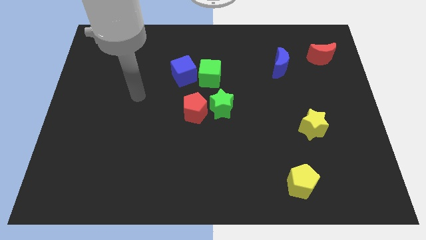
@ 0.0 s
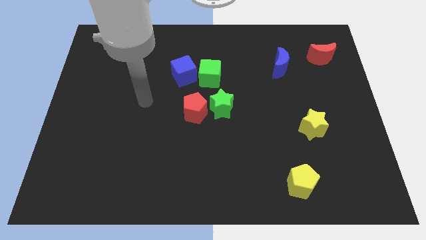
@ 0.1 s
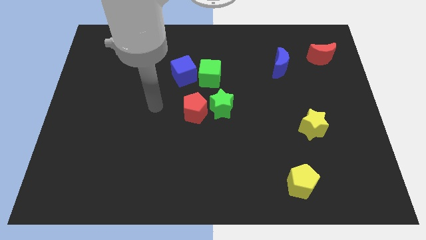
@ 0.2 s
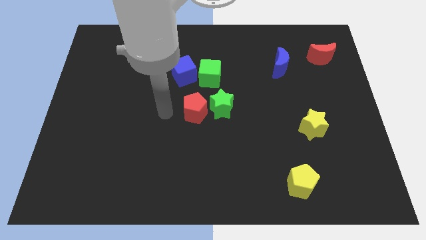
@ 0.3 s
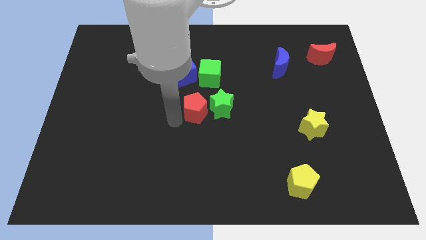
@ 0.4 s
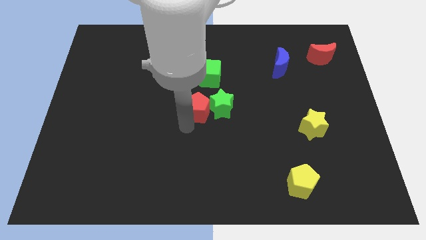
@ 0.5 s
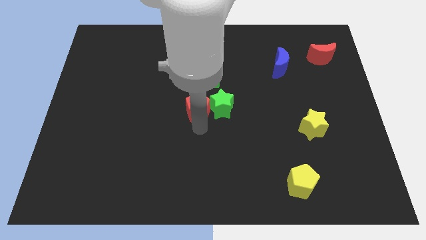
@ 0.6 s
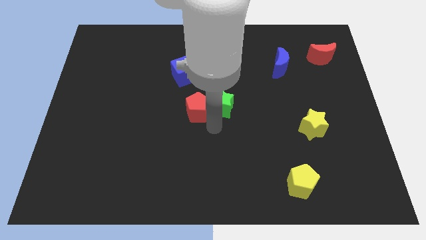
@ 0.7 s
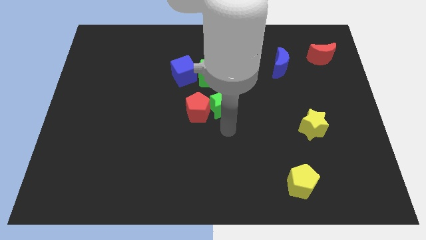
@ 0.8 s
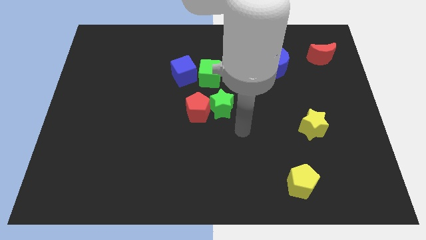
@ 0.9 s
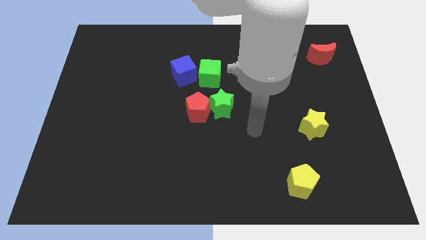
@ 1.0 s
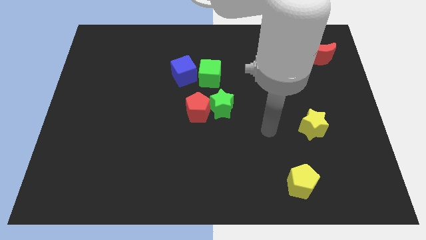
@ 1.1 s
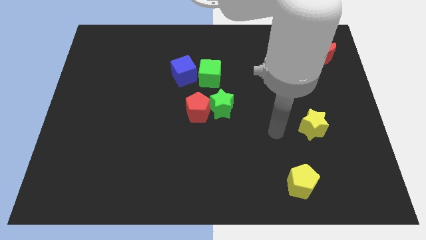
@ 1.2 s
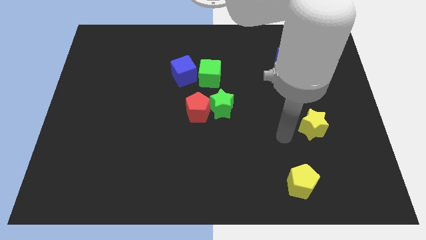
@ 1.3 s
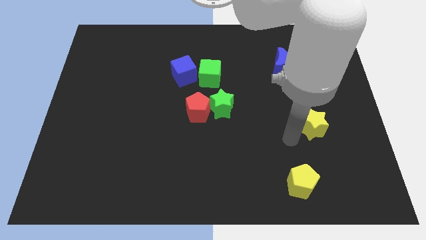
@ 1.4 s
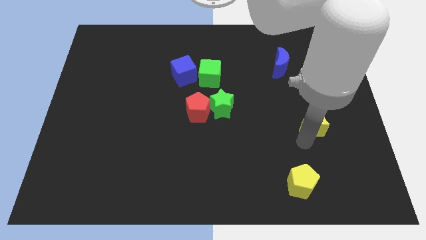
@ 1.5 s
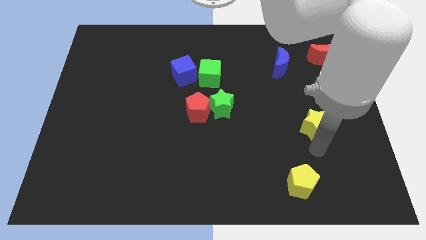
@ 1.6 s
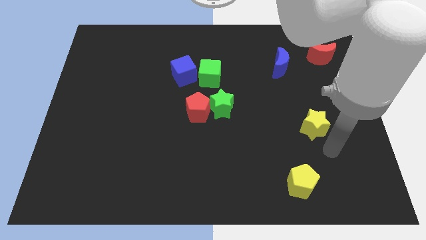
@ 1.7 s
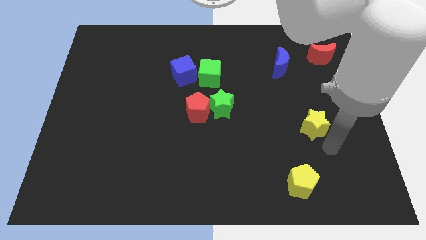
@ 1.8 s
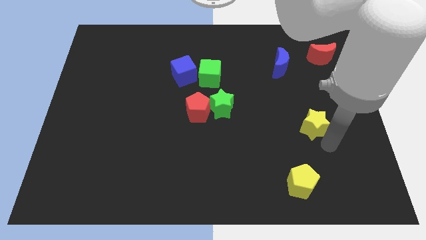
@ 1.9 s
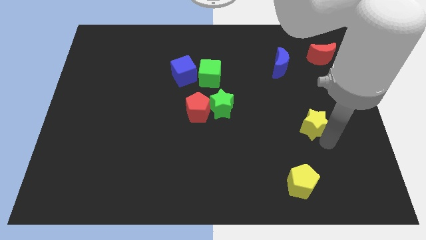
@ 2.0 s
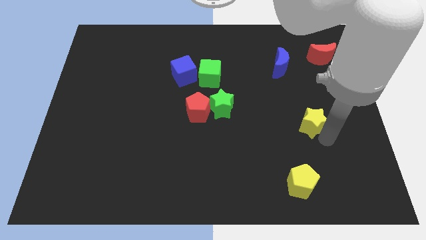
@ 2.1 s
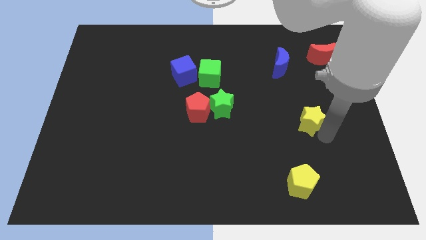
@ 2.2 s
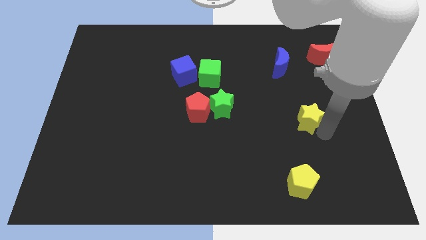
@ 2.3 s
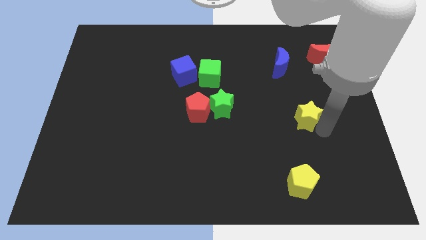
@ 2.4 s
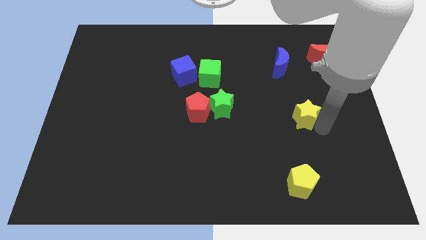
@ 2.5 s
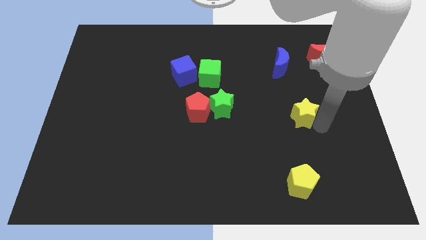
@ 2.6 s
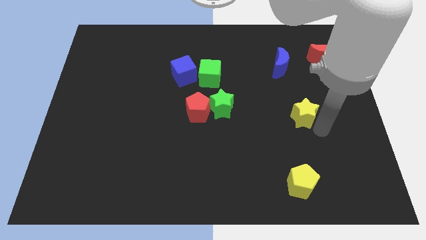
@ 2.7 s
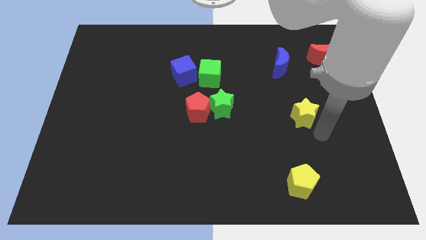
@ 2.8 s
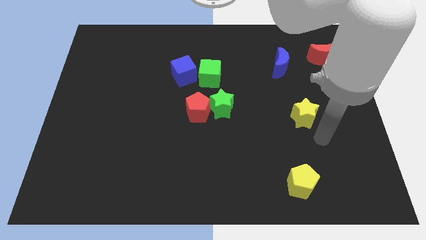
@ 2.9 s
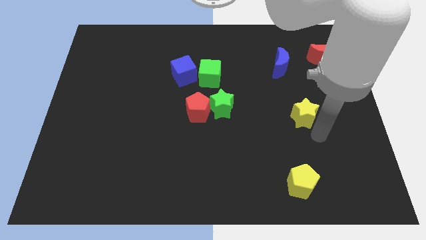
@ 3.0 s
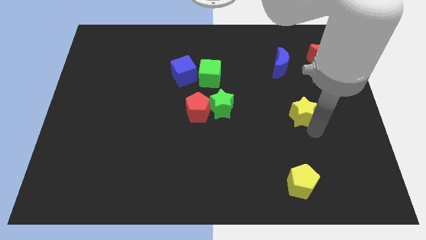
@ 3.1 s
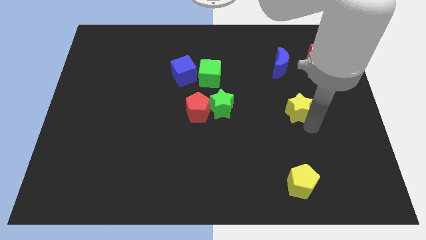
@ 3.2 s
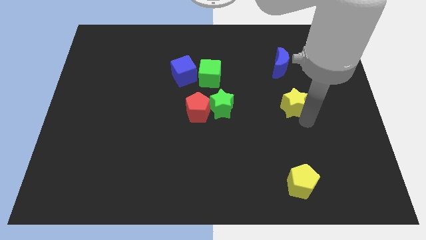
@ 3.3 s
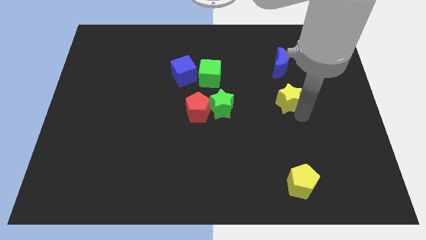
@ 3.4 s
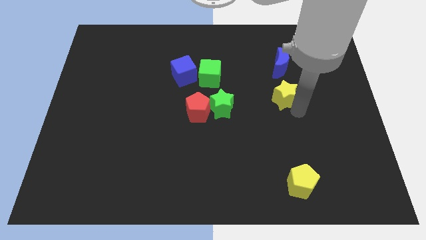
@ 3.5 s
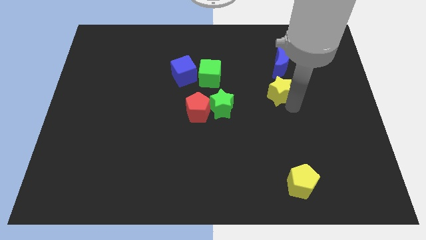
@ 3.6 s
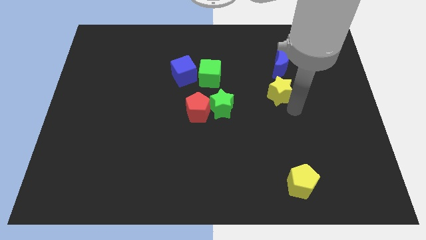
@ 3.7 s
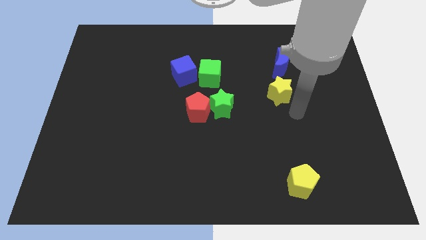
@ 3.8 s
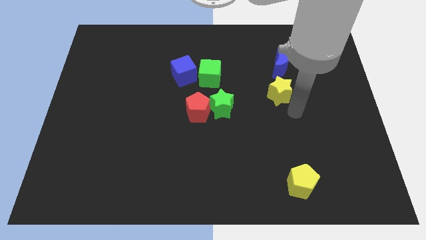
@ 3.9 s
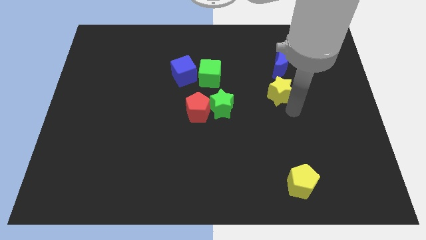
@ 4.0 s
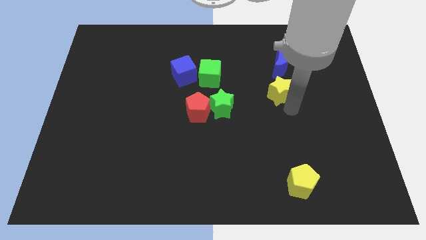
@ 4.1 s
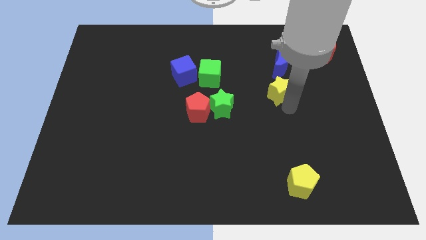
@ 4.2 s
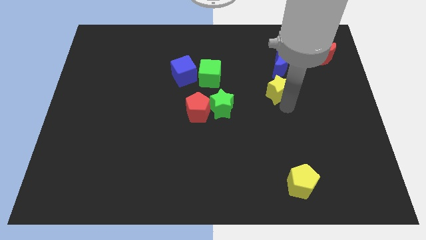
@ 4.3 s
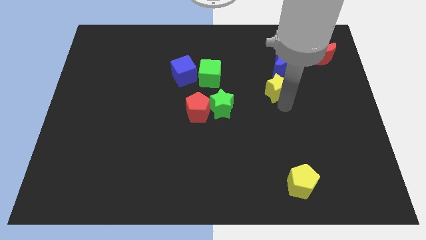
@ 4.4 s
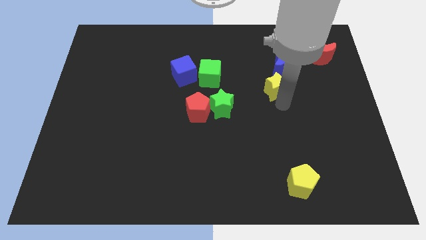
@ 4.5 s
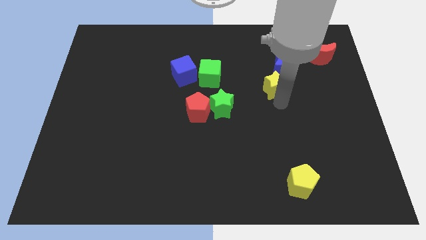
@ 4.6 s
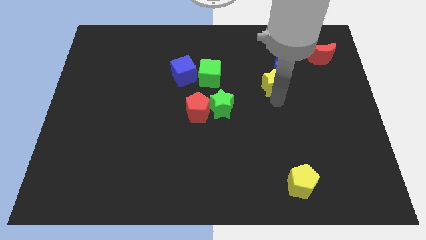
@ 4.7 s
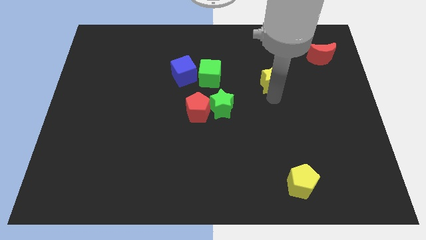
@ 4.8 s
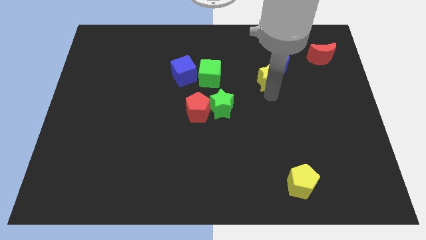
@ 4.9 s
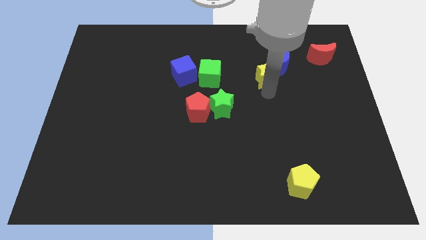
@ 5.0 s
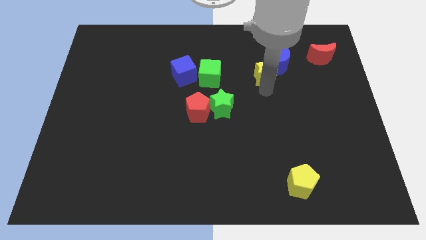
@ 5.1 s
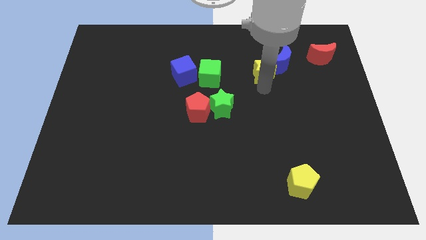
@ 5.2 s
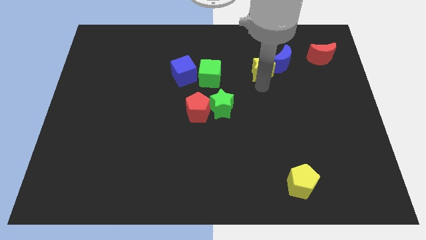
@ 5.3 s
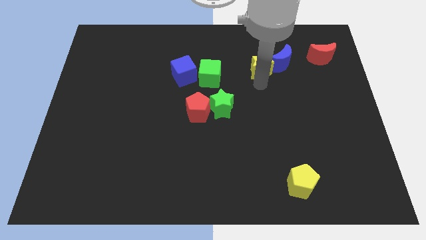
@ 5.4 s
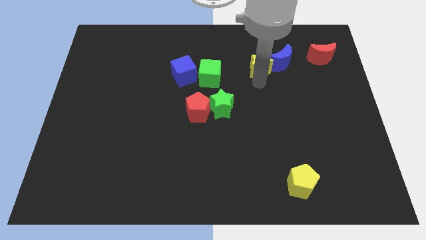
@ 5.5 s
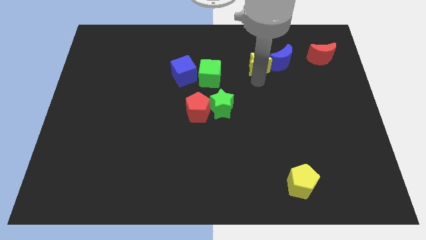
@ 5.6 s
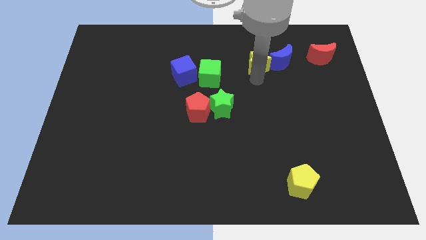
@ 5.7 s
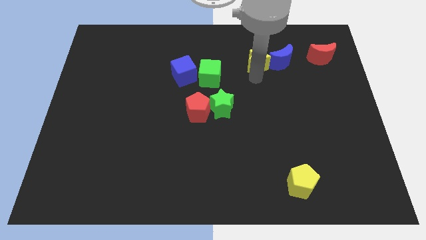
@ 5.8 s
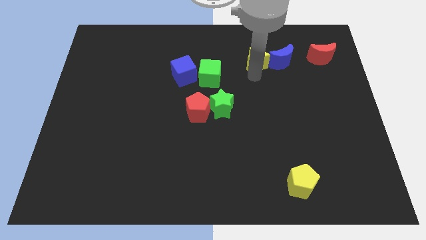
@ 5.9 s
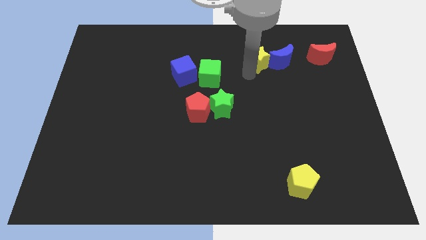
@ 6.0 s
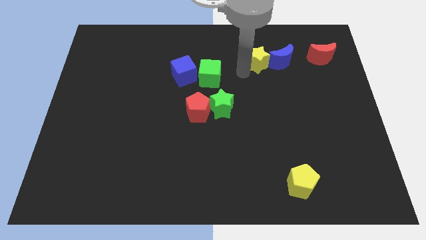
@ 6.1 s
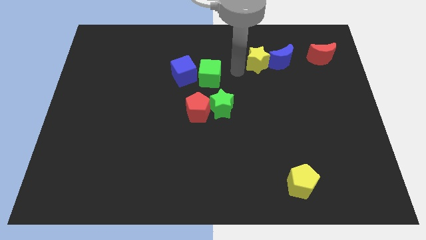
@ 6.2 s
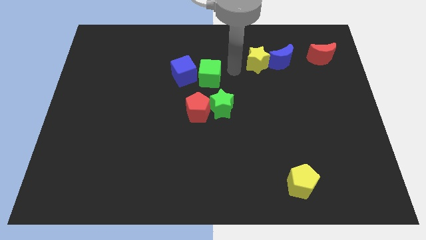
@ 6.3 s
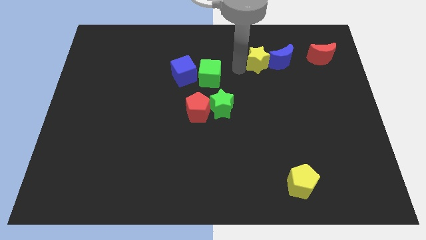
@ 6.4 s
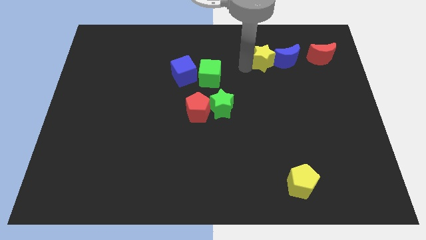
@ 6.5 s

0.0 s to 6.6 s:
move the yellow star to the left of the red moon
